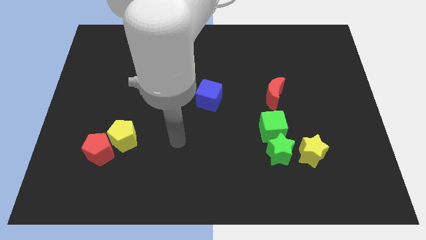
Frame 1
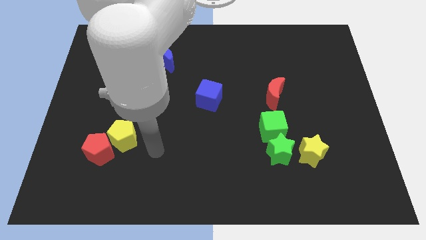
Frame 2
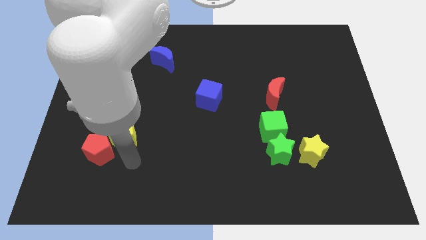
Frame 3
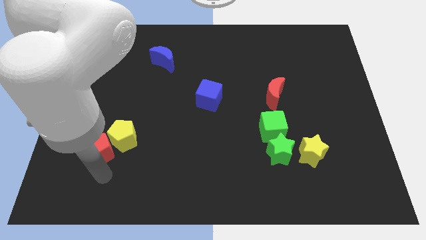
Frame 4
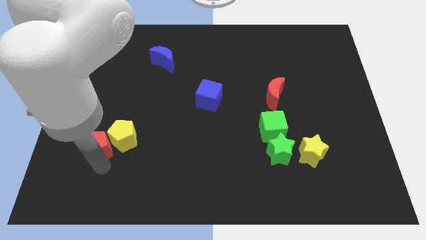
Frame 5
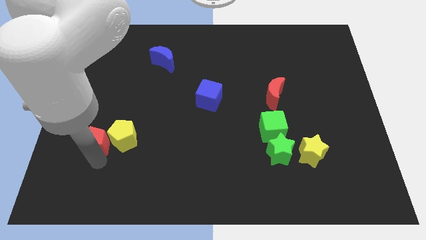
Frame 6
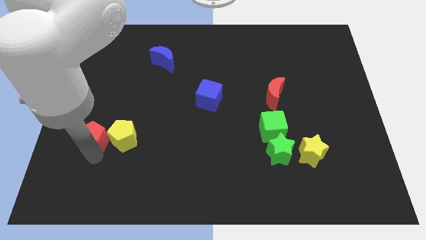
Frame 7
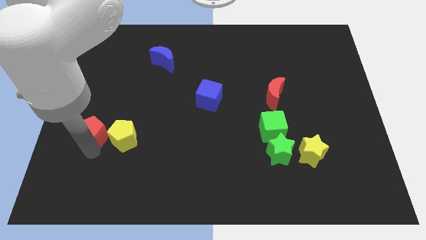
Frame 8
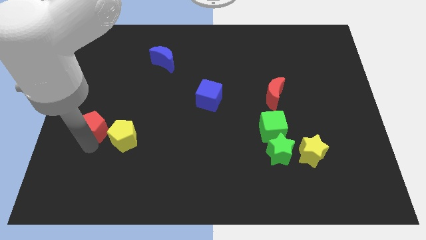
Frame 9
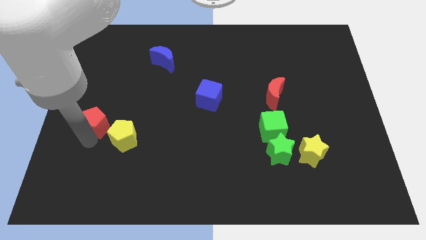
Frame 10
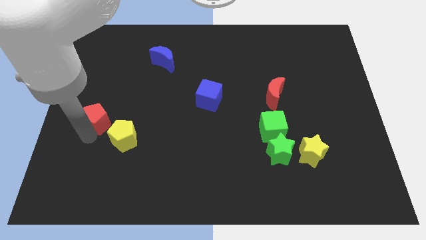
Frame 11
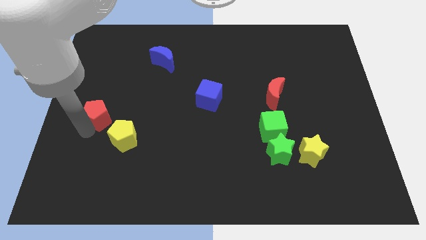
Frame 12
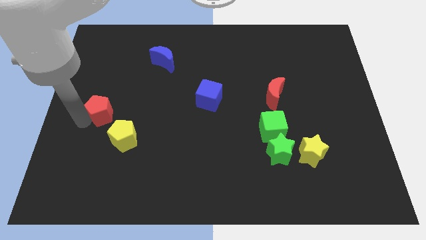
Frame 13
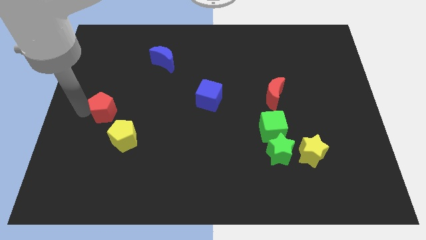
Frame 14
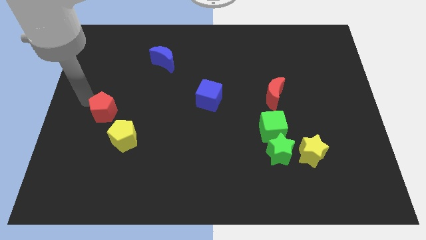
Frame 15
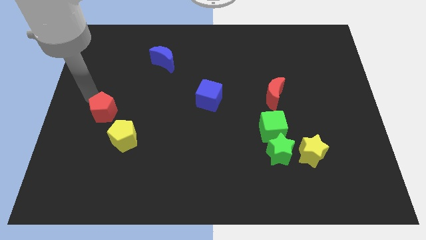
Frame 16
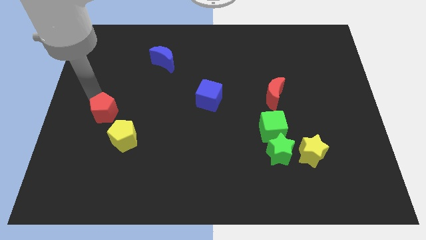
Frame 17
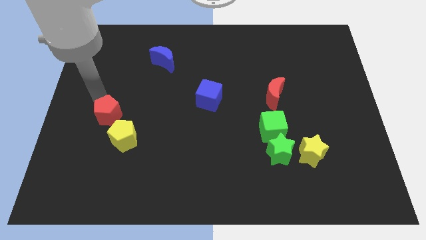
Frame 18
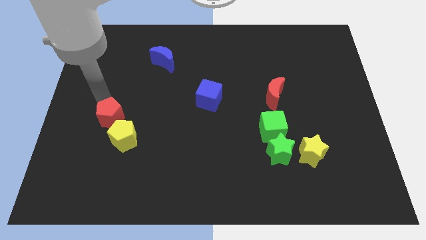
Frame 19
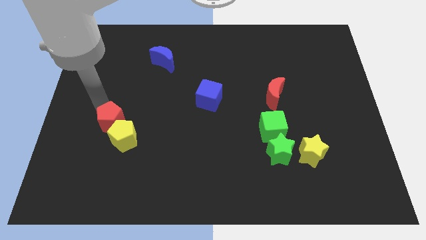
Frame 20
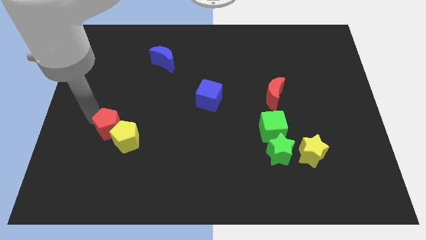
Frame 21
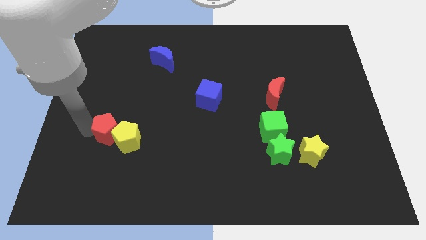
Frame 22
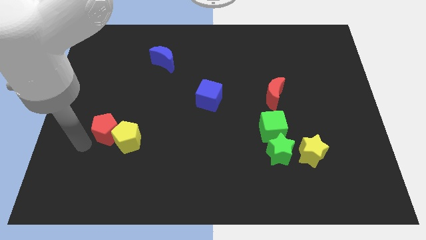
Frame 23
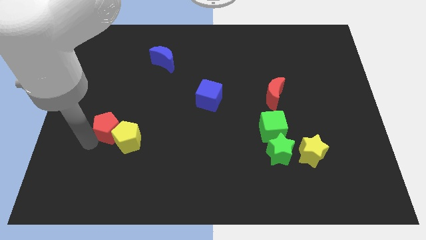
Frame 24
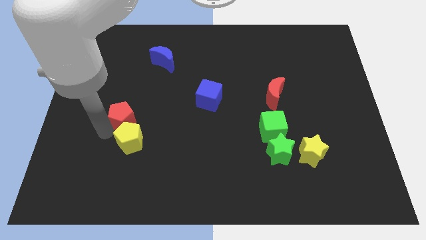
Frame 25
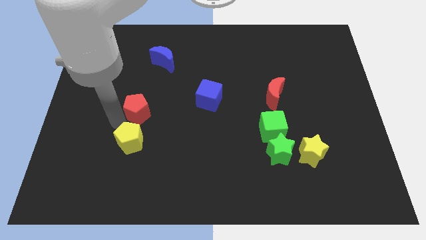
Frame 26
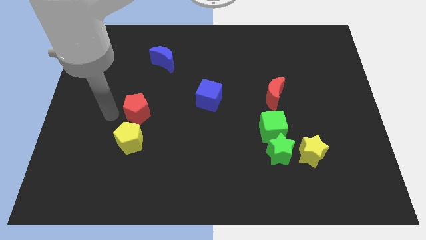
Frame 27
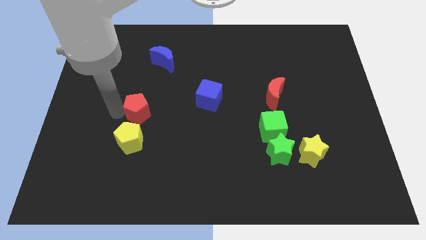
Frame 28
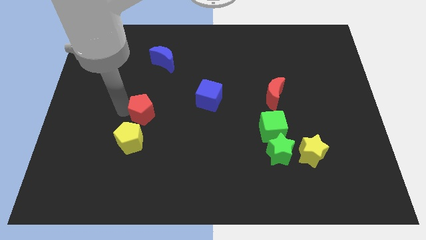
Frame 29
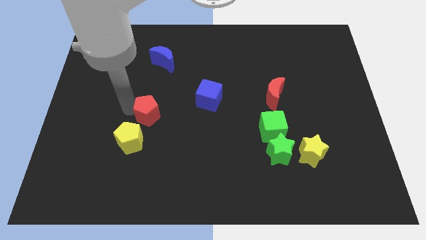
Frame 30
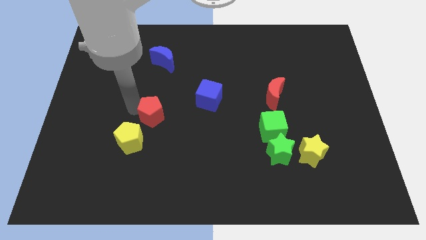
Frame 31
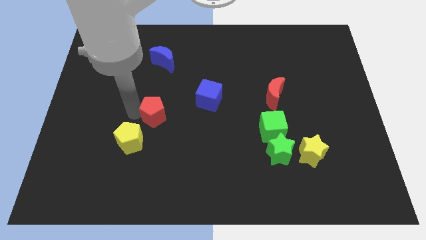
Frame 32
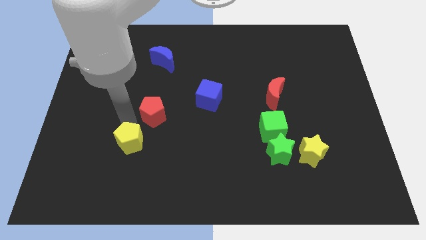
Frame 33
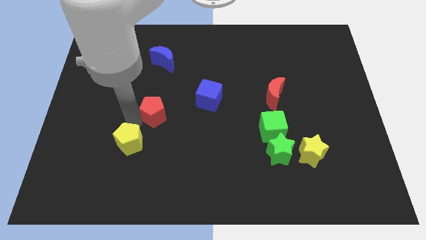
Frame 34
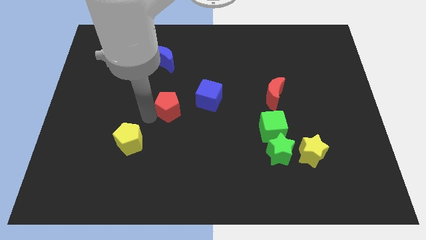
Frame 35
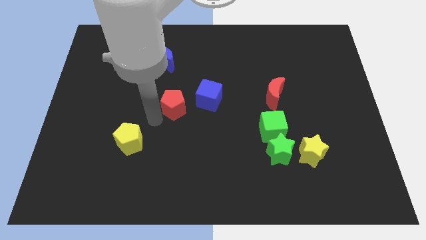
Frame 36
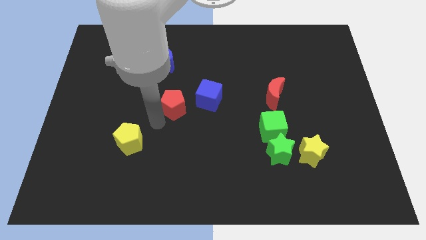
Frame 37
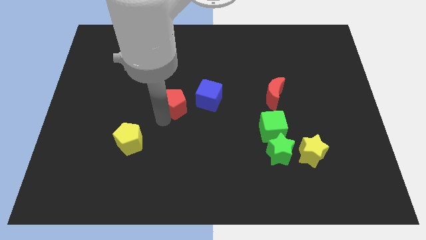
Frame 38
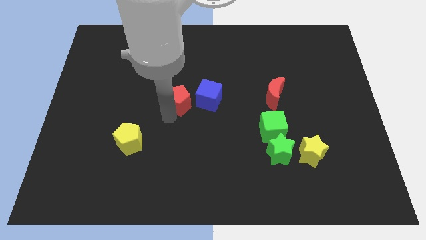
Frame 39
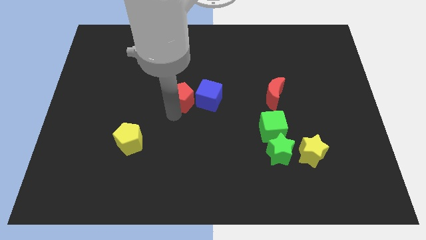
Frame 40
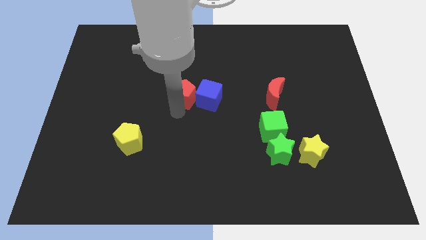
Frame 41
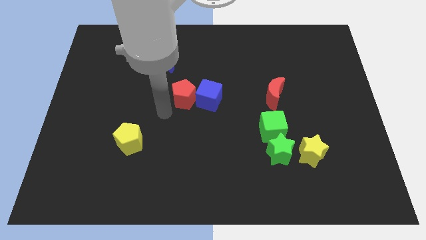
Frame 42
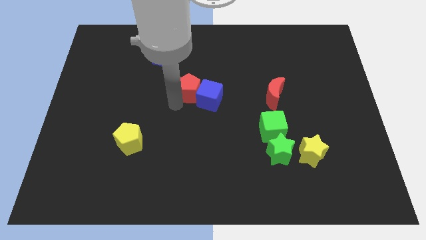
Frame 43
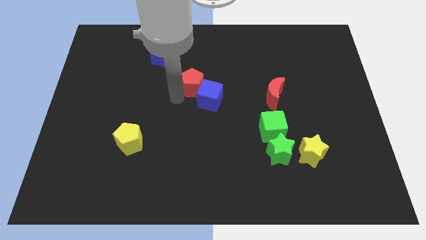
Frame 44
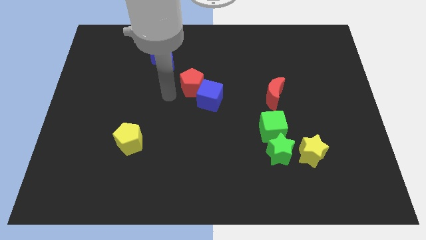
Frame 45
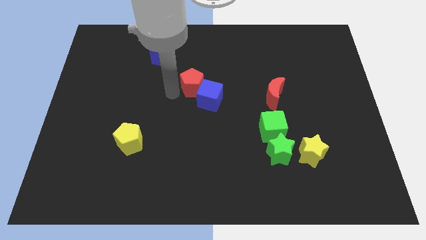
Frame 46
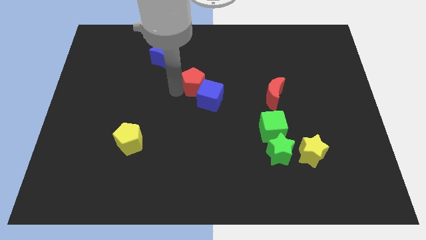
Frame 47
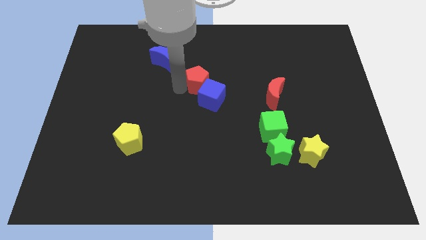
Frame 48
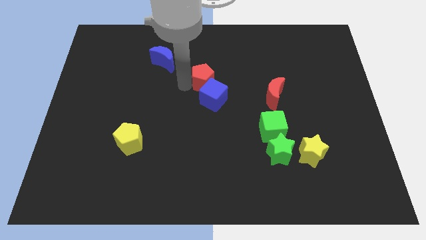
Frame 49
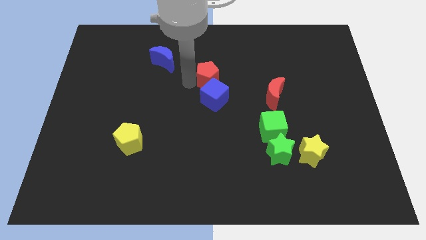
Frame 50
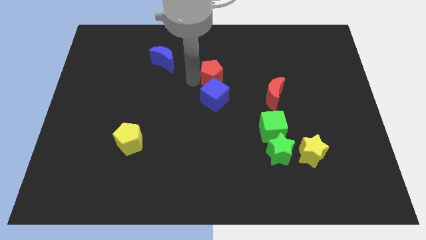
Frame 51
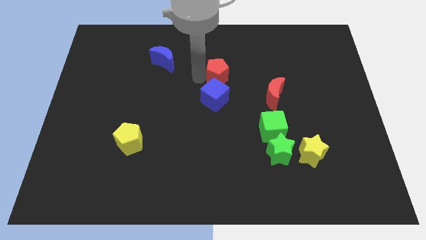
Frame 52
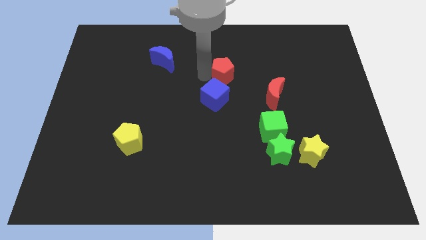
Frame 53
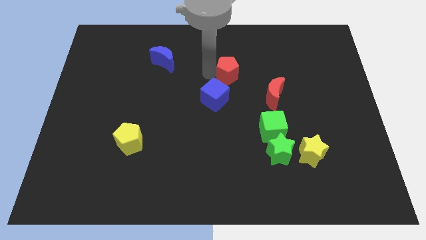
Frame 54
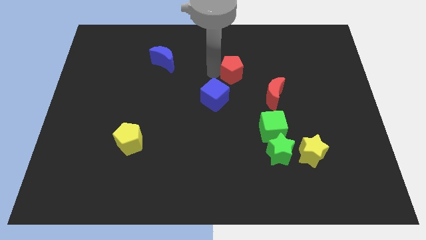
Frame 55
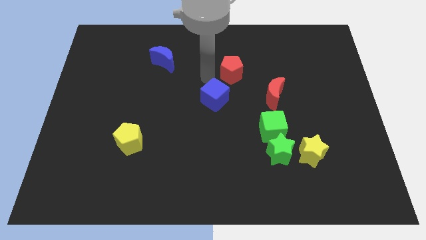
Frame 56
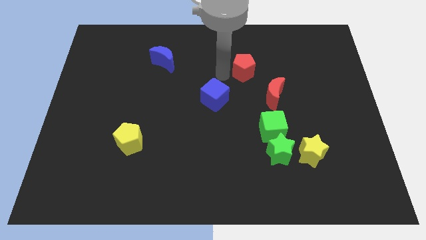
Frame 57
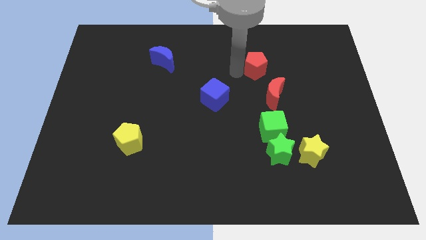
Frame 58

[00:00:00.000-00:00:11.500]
slide the red pentagon above the red moon

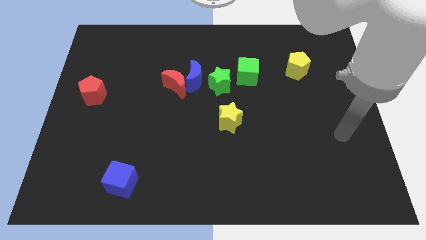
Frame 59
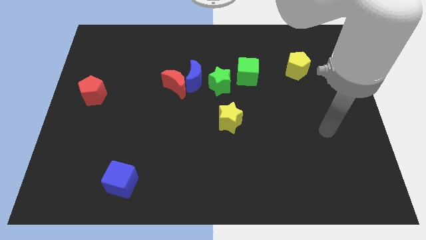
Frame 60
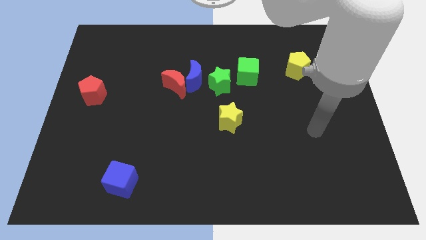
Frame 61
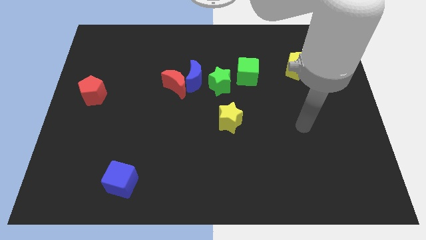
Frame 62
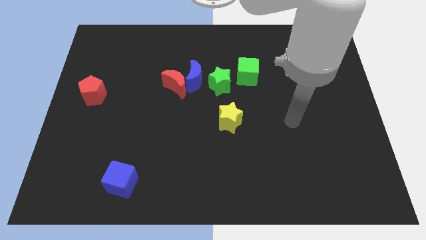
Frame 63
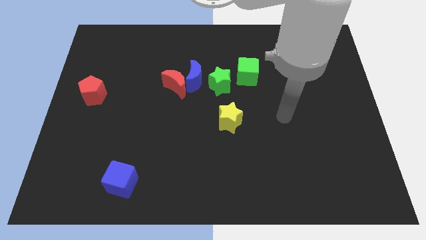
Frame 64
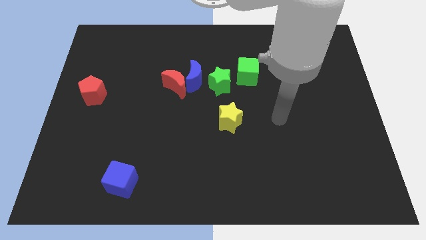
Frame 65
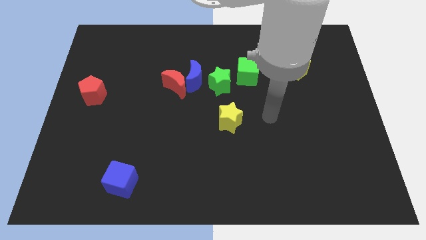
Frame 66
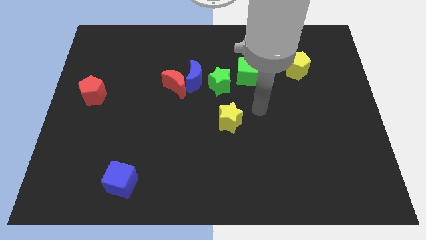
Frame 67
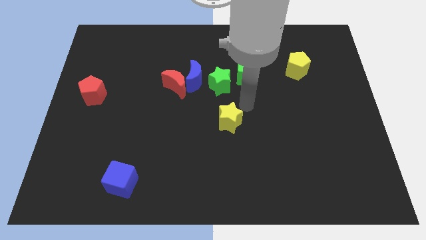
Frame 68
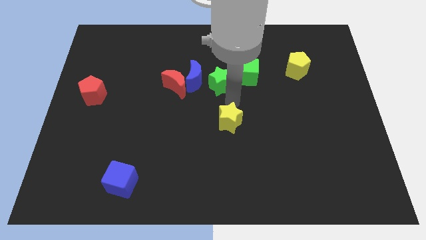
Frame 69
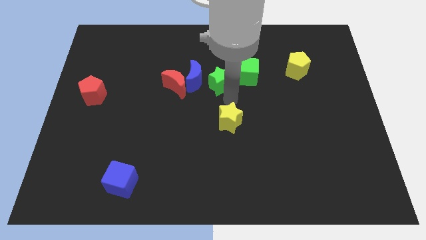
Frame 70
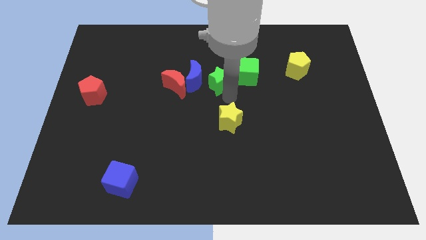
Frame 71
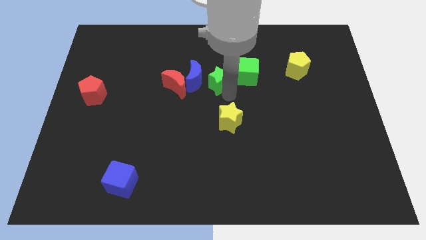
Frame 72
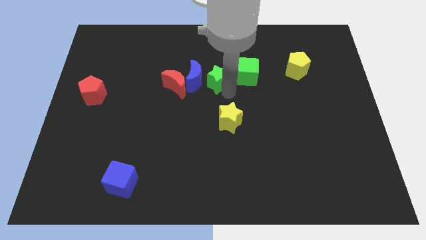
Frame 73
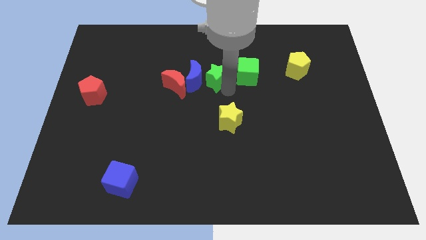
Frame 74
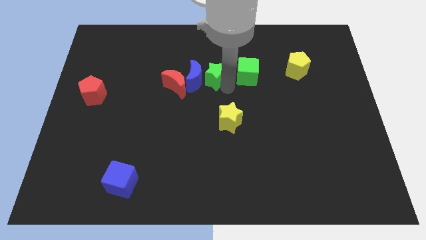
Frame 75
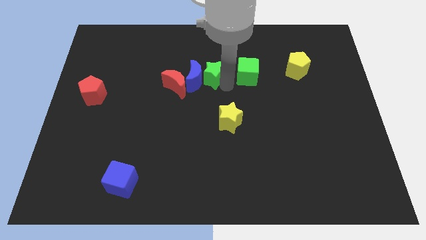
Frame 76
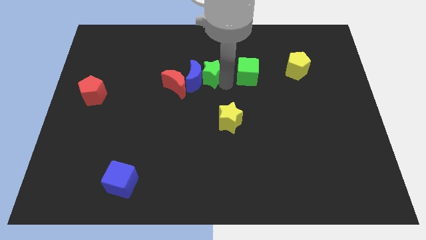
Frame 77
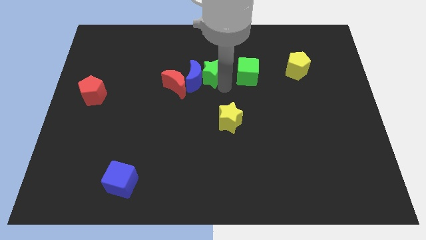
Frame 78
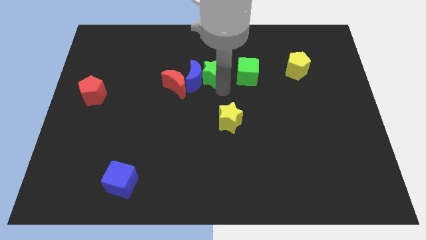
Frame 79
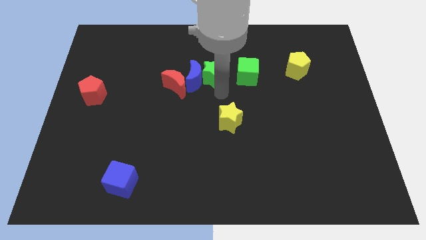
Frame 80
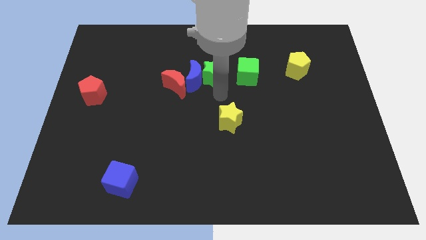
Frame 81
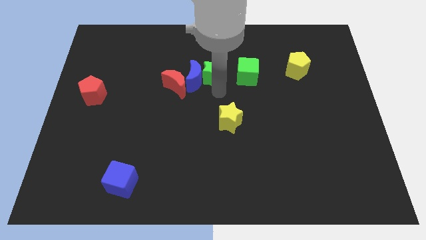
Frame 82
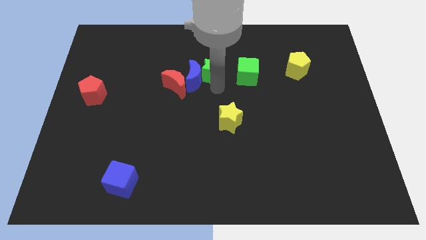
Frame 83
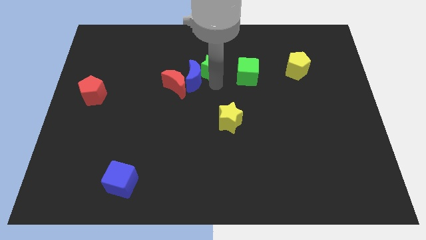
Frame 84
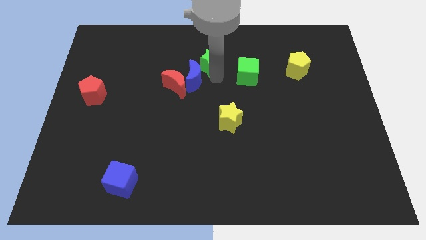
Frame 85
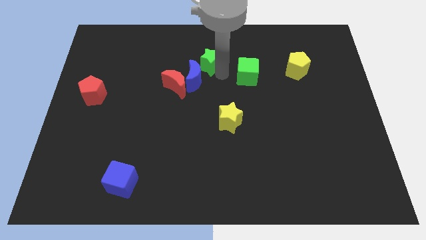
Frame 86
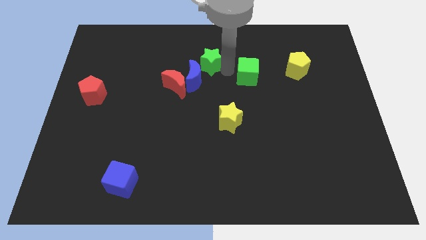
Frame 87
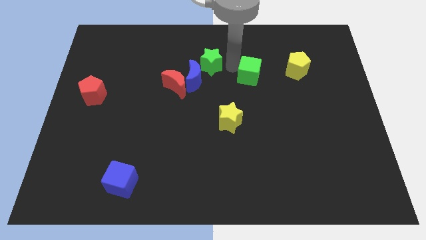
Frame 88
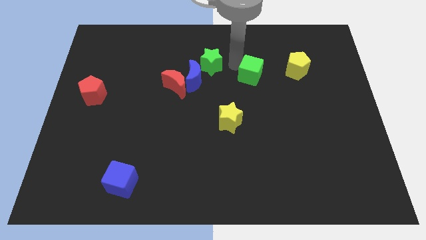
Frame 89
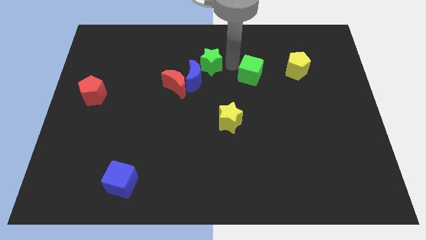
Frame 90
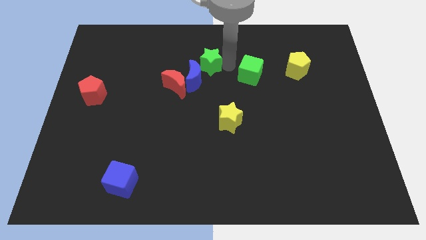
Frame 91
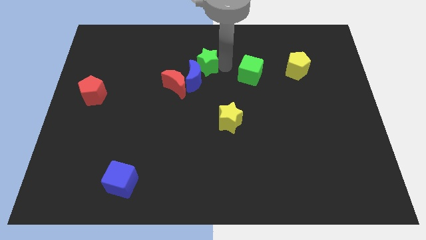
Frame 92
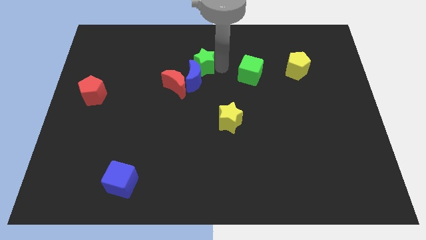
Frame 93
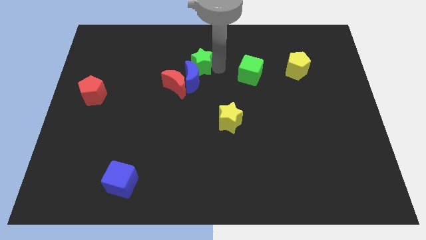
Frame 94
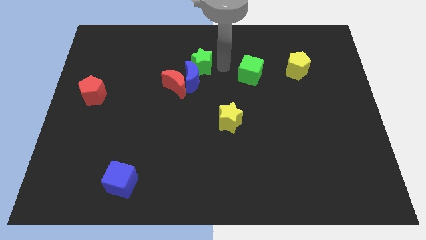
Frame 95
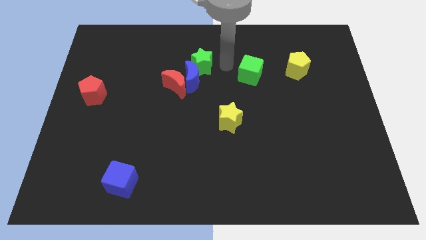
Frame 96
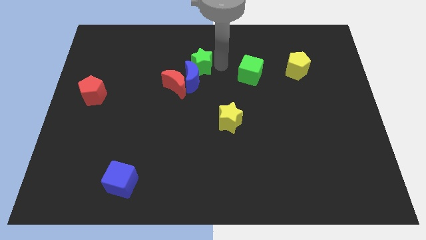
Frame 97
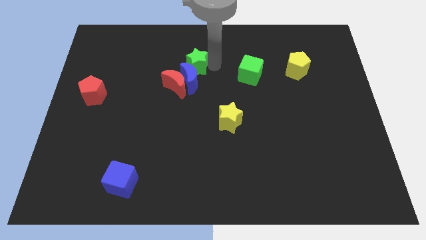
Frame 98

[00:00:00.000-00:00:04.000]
slide the green star diagonally up and to the left of the blue moon
